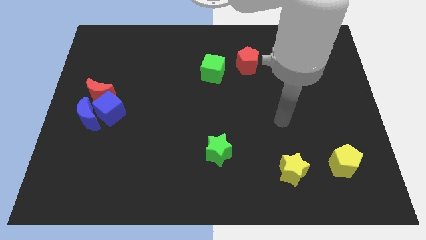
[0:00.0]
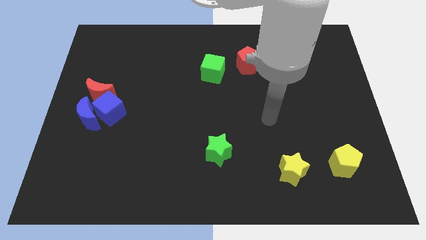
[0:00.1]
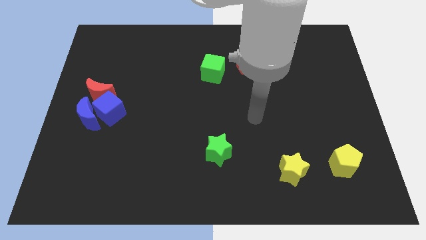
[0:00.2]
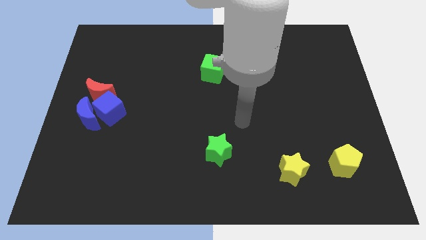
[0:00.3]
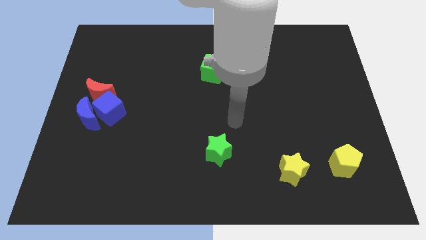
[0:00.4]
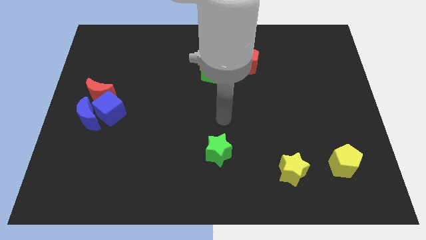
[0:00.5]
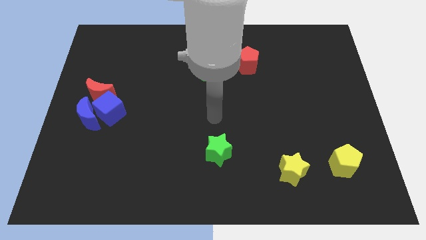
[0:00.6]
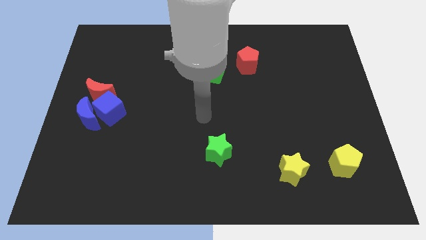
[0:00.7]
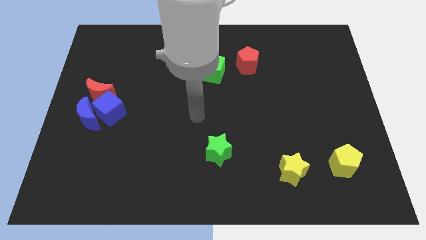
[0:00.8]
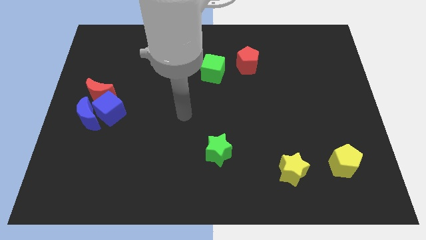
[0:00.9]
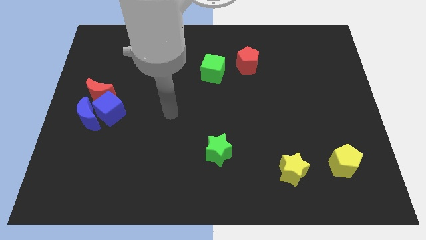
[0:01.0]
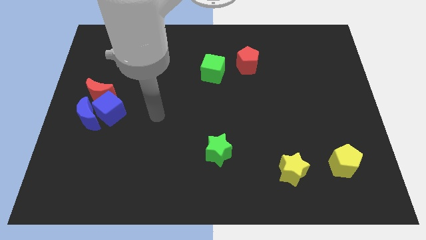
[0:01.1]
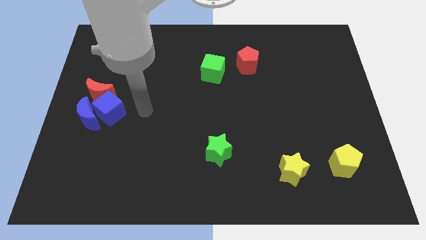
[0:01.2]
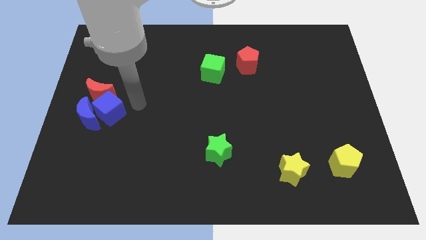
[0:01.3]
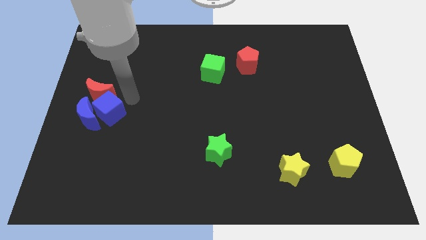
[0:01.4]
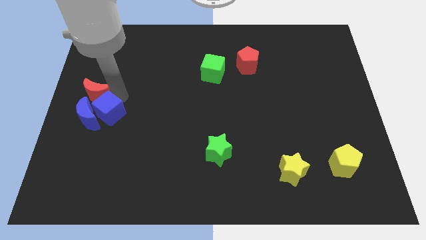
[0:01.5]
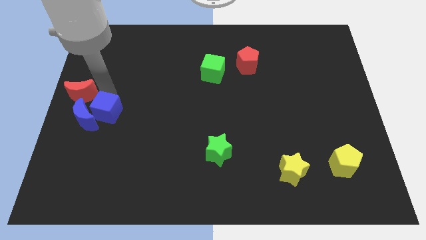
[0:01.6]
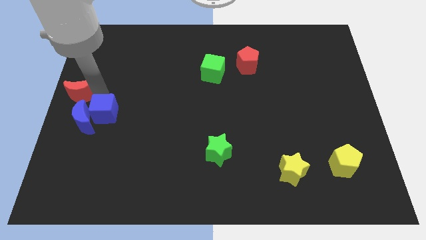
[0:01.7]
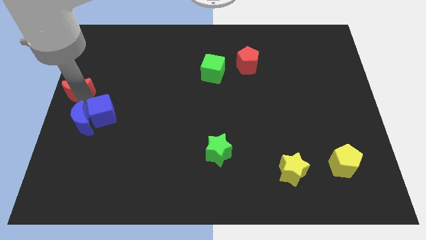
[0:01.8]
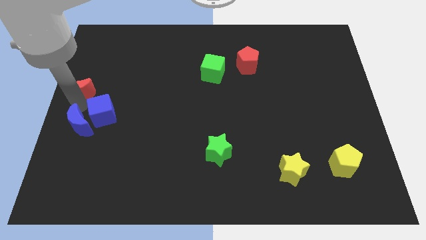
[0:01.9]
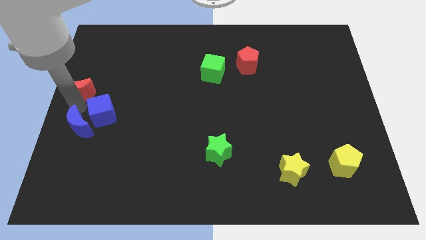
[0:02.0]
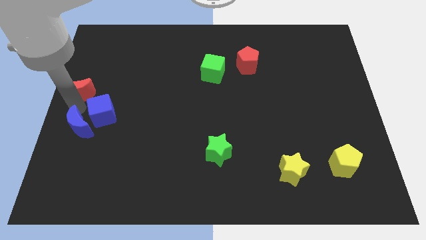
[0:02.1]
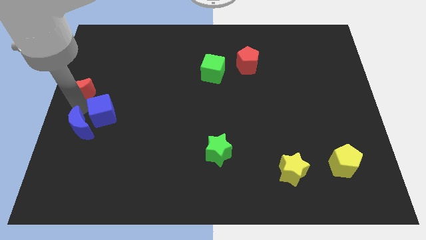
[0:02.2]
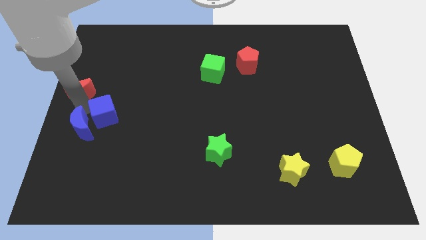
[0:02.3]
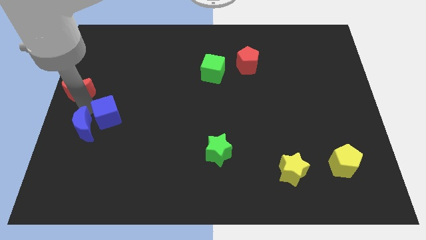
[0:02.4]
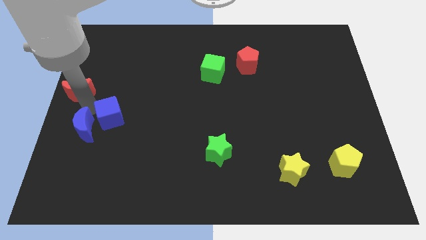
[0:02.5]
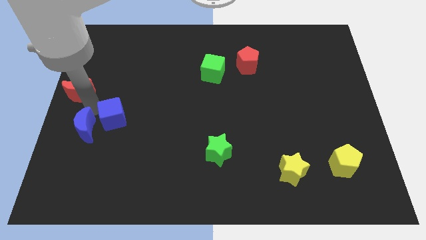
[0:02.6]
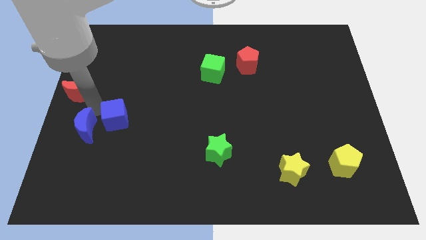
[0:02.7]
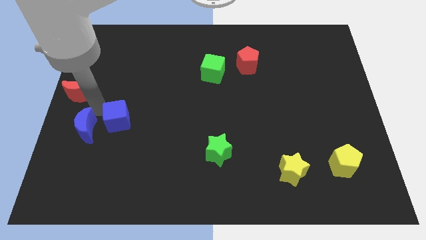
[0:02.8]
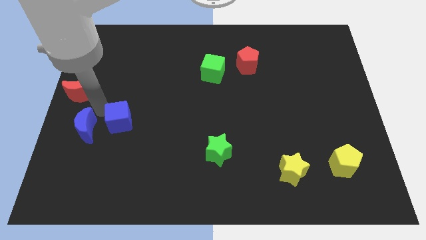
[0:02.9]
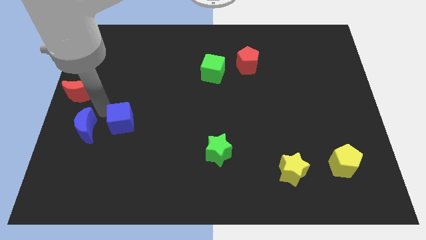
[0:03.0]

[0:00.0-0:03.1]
separate the blue cube from the blue moon and red moon

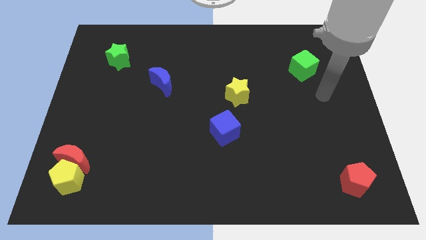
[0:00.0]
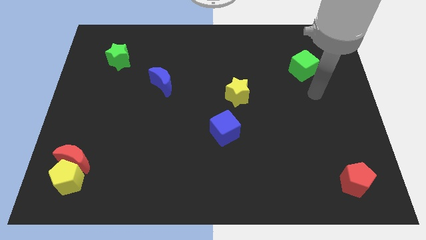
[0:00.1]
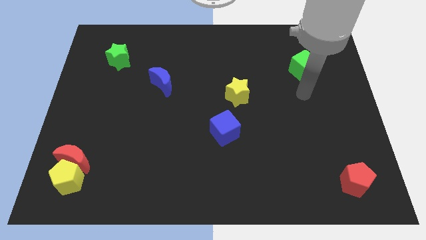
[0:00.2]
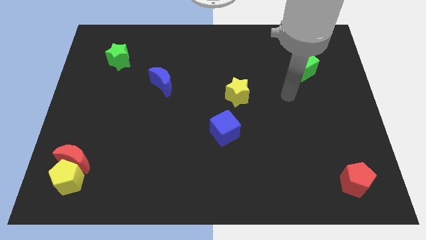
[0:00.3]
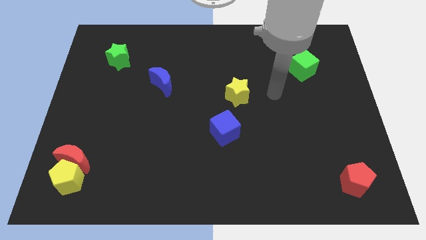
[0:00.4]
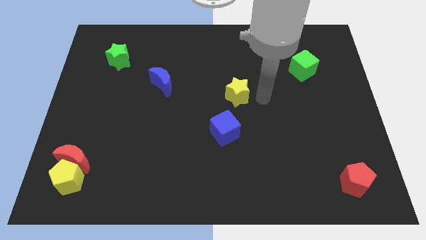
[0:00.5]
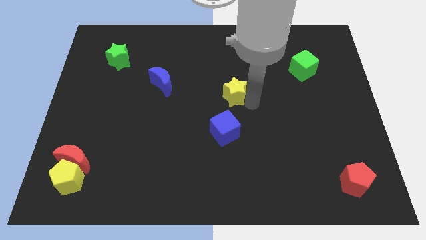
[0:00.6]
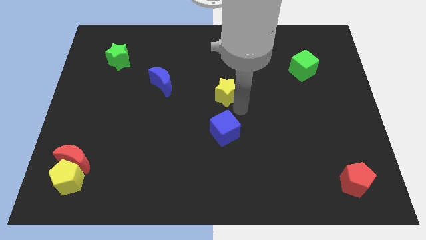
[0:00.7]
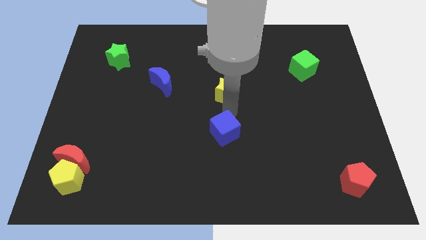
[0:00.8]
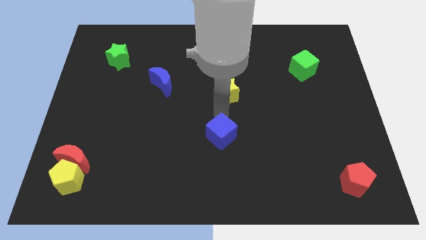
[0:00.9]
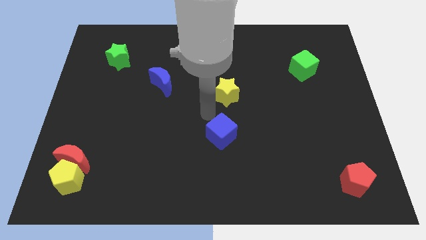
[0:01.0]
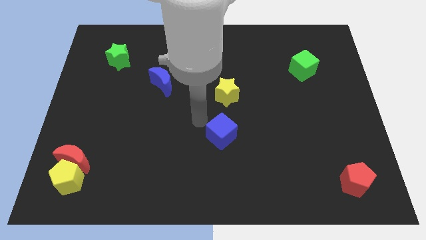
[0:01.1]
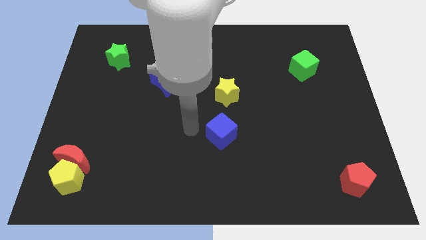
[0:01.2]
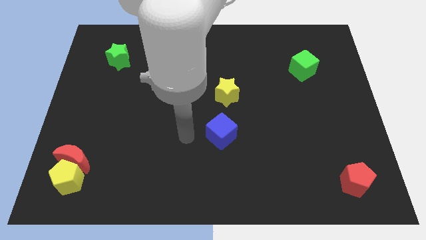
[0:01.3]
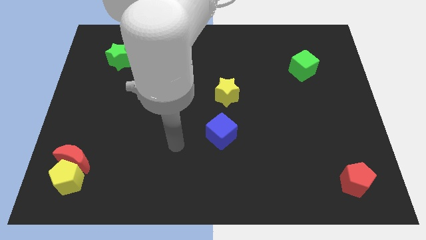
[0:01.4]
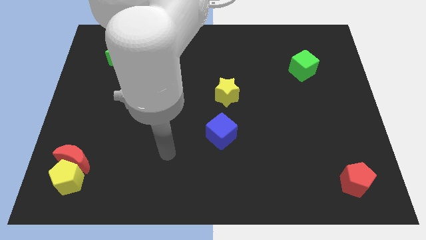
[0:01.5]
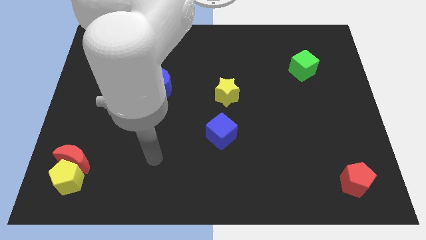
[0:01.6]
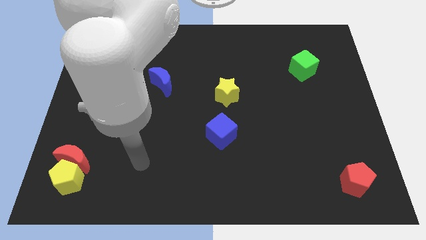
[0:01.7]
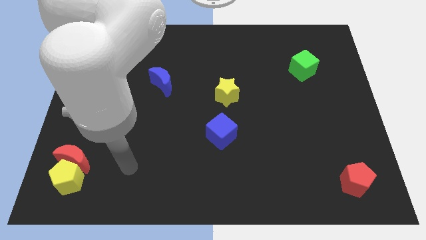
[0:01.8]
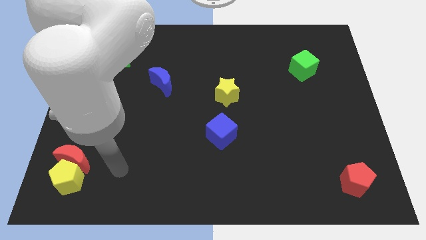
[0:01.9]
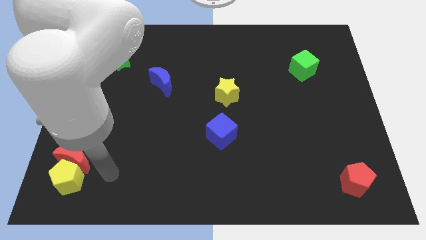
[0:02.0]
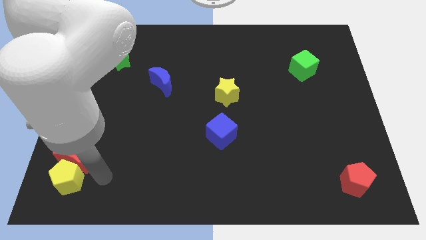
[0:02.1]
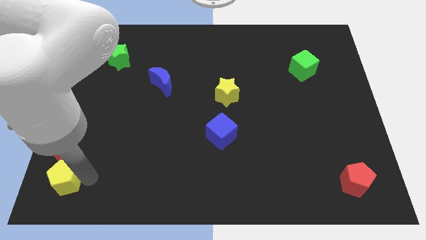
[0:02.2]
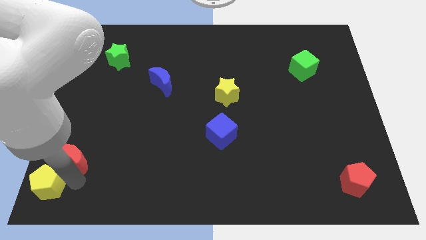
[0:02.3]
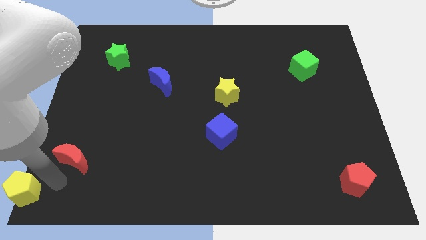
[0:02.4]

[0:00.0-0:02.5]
separate the red moon from the yellow pentagon

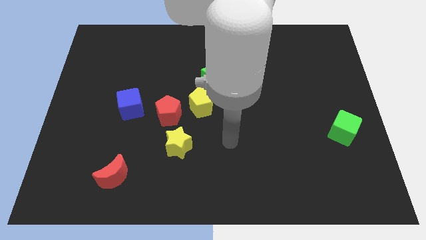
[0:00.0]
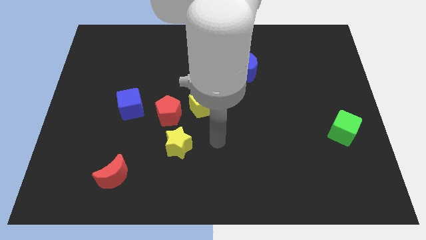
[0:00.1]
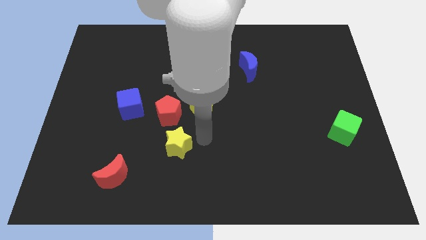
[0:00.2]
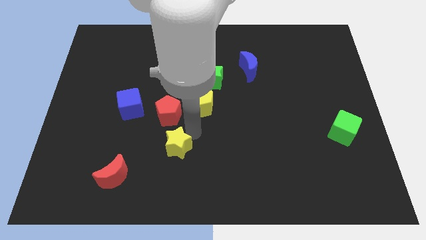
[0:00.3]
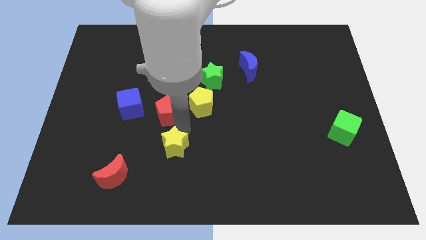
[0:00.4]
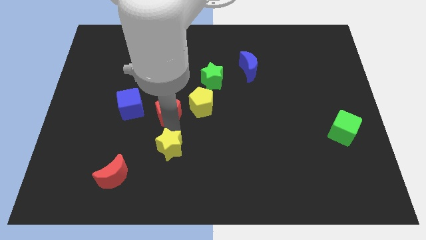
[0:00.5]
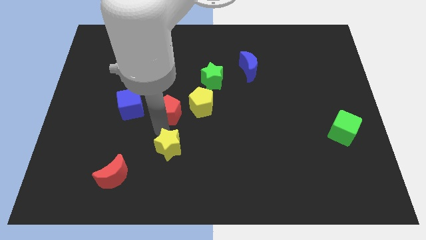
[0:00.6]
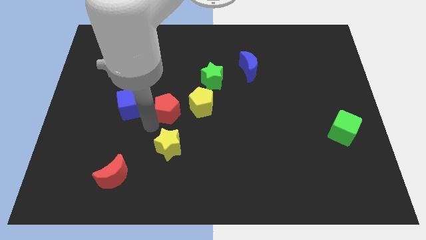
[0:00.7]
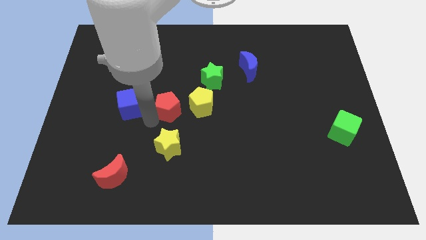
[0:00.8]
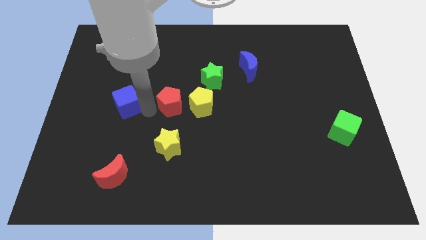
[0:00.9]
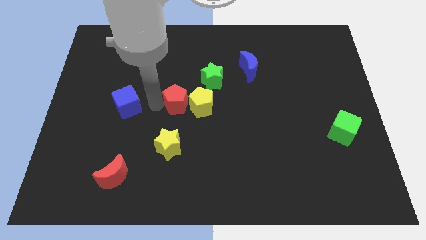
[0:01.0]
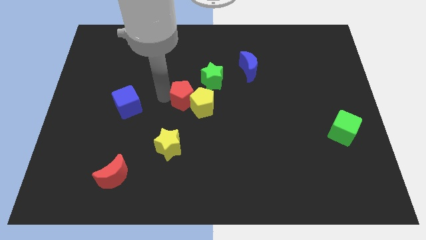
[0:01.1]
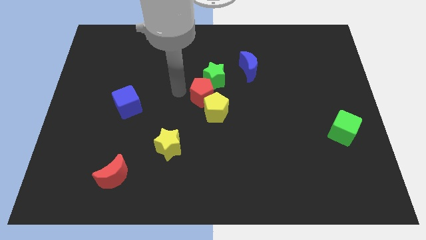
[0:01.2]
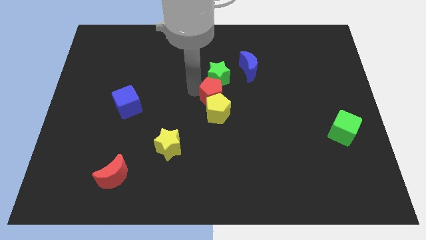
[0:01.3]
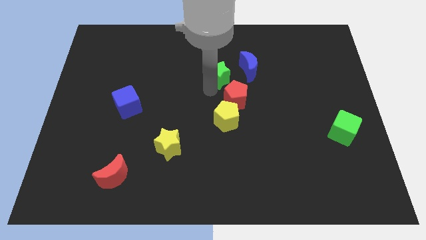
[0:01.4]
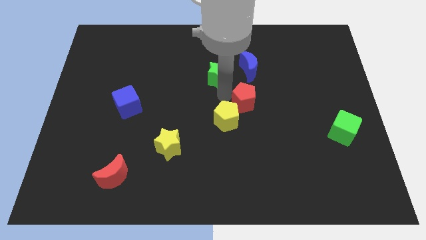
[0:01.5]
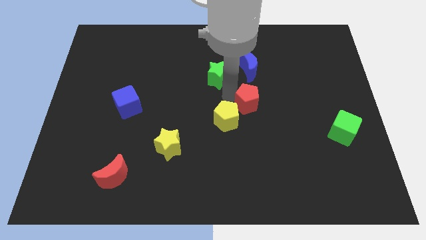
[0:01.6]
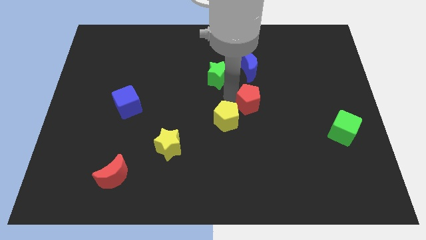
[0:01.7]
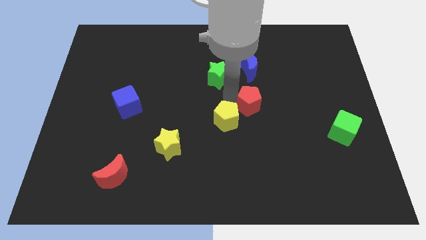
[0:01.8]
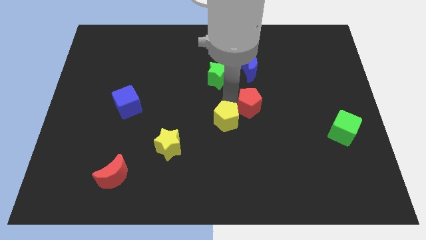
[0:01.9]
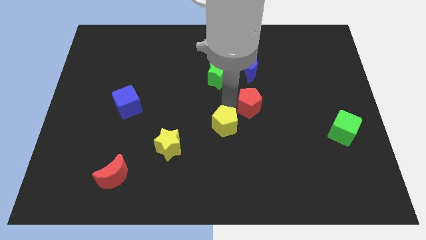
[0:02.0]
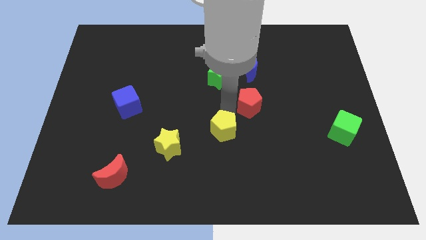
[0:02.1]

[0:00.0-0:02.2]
move the yellow pentagon away from the red pentagon and green star

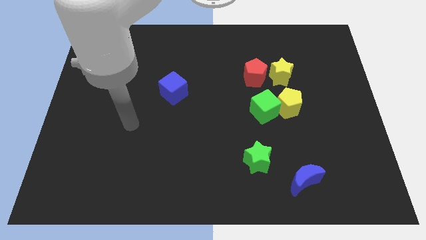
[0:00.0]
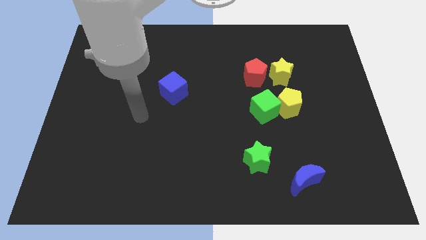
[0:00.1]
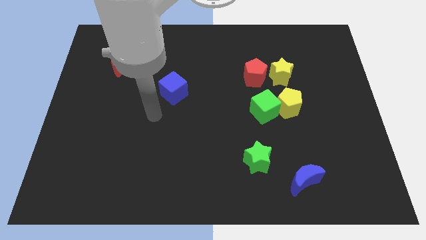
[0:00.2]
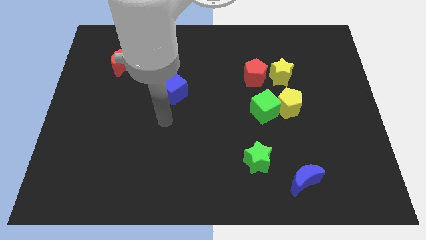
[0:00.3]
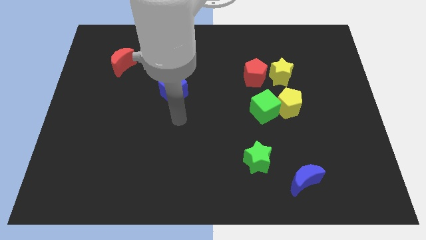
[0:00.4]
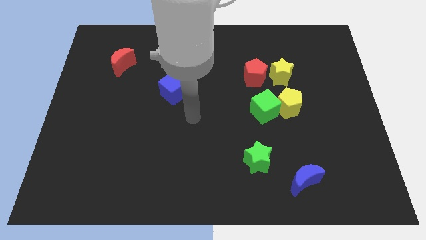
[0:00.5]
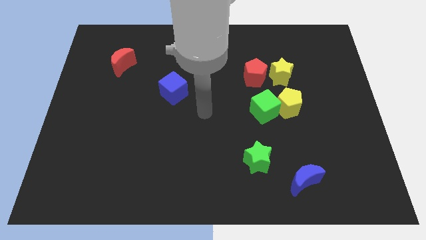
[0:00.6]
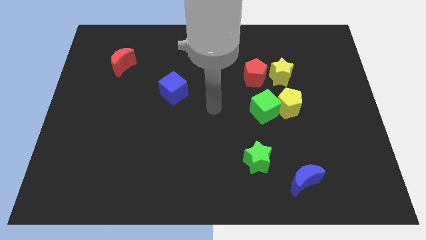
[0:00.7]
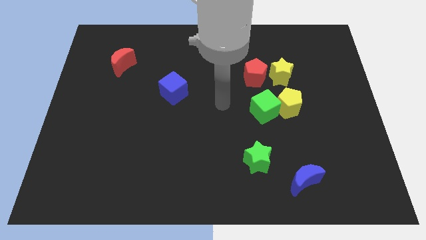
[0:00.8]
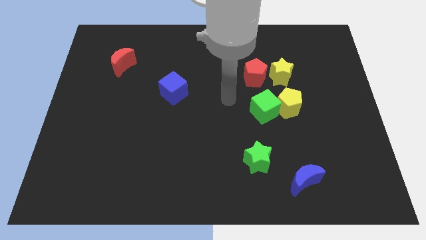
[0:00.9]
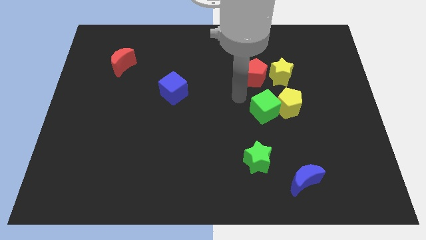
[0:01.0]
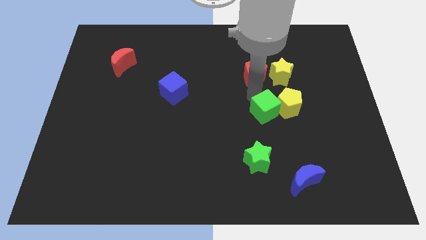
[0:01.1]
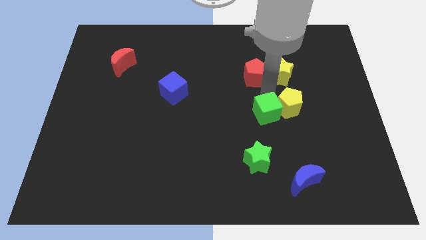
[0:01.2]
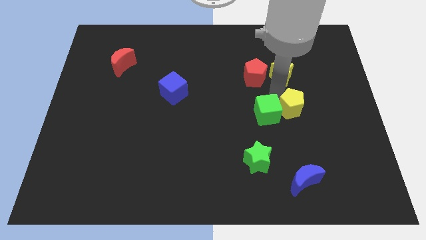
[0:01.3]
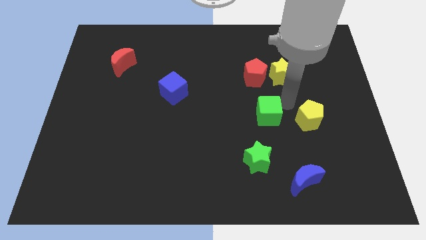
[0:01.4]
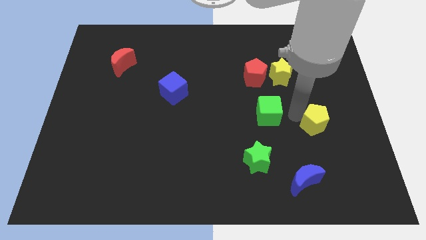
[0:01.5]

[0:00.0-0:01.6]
separate the green cube from the yellow pentagon
